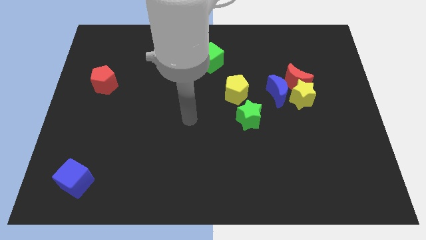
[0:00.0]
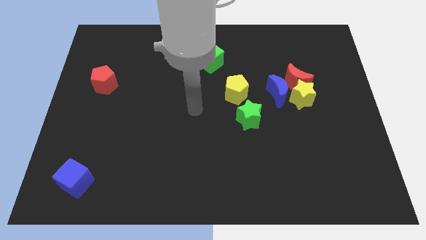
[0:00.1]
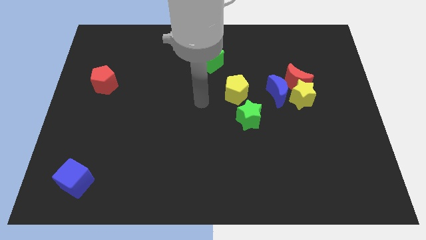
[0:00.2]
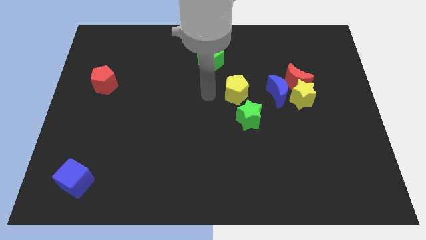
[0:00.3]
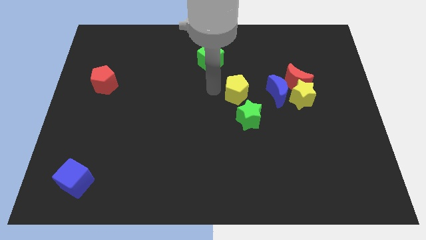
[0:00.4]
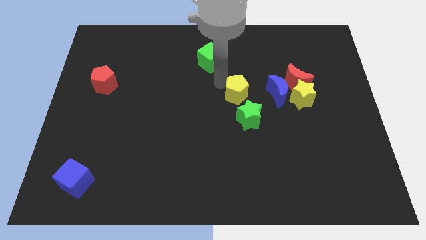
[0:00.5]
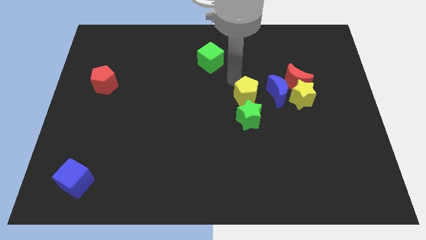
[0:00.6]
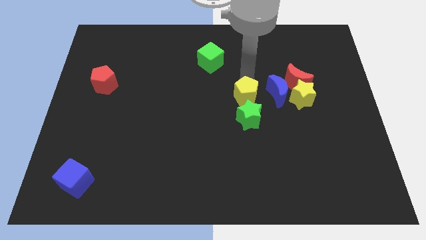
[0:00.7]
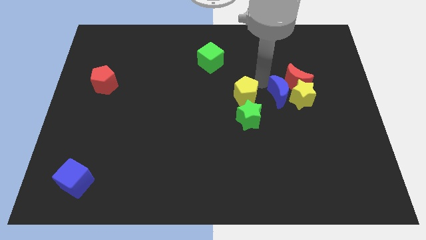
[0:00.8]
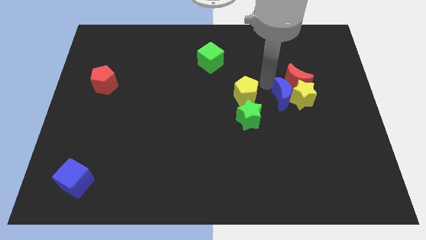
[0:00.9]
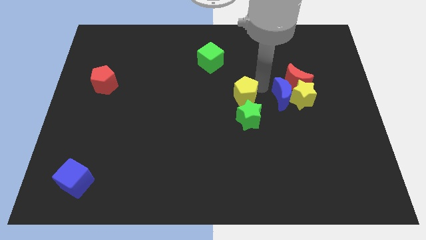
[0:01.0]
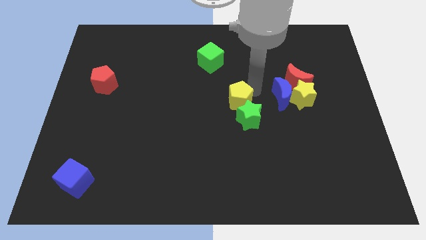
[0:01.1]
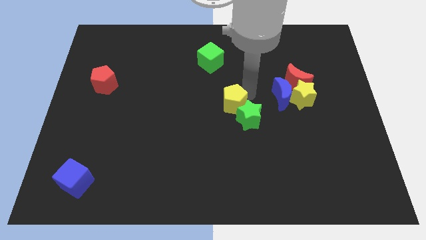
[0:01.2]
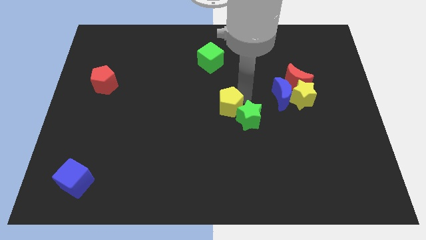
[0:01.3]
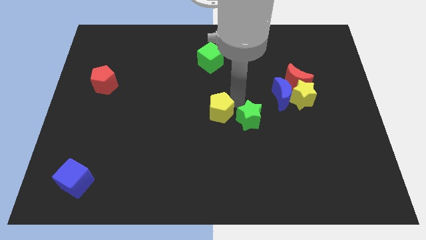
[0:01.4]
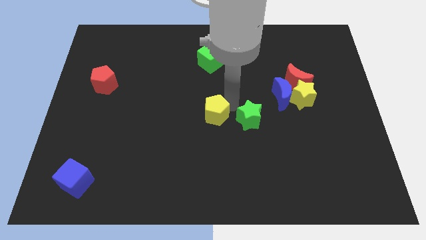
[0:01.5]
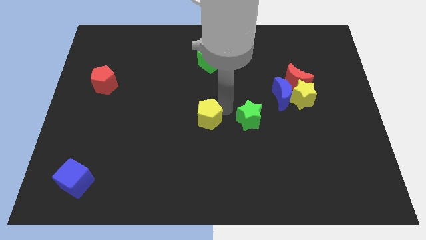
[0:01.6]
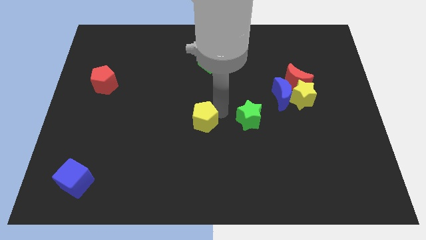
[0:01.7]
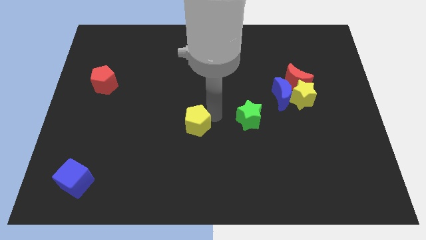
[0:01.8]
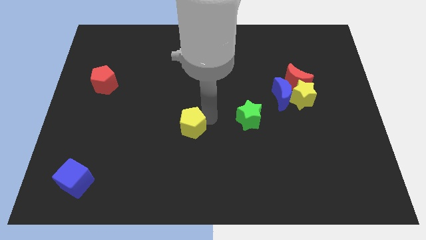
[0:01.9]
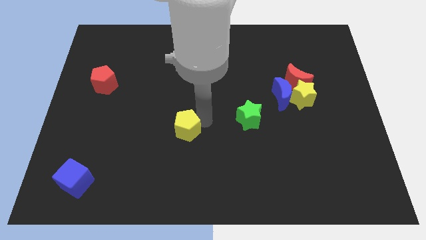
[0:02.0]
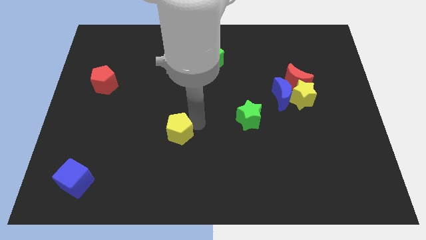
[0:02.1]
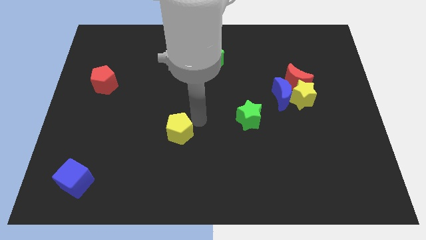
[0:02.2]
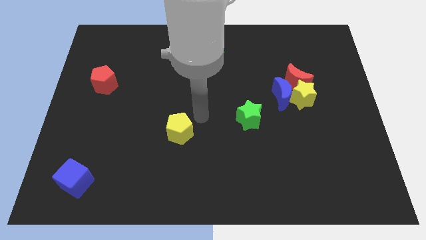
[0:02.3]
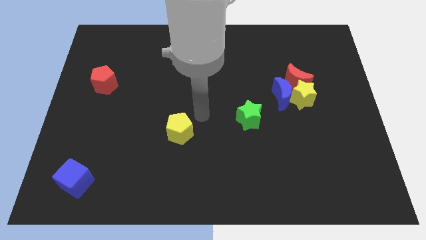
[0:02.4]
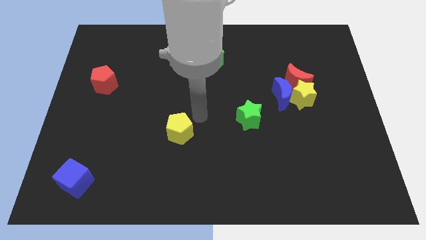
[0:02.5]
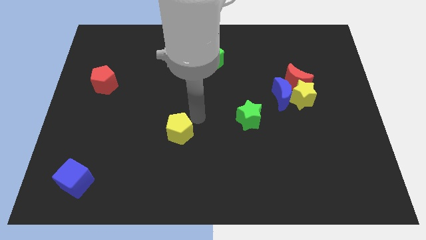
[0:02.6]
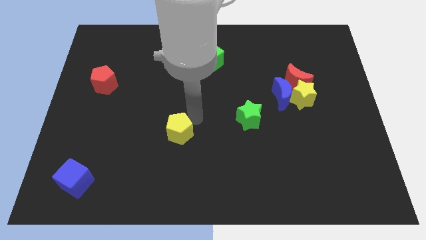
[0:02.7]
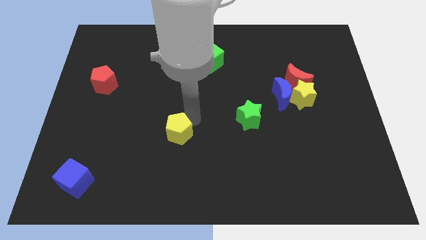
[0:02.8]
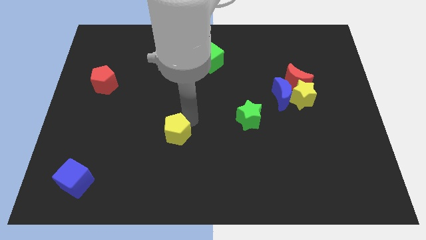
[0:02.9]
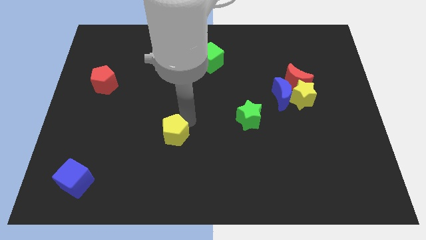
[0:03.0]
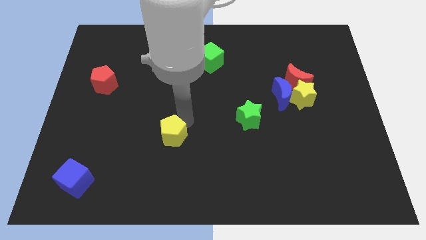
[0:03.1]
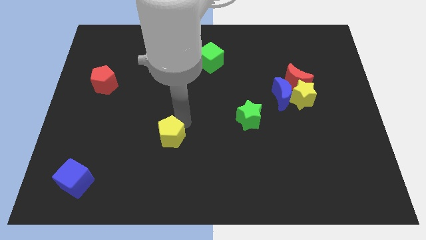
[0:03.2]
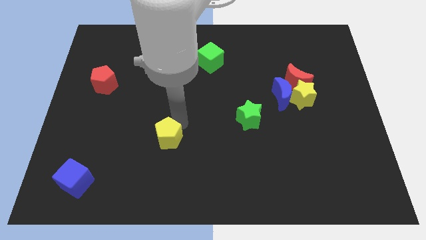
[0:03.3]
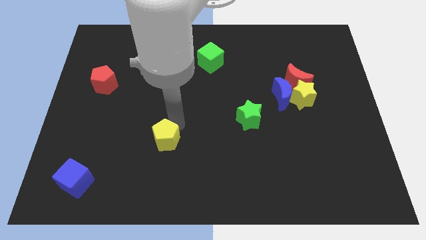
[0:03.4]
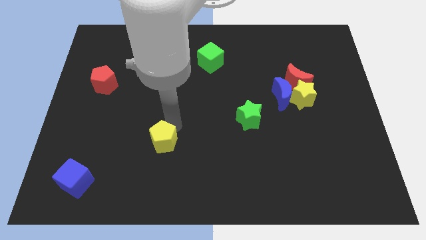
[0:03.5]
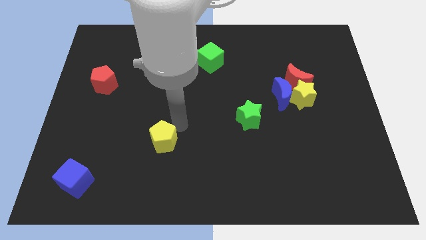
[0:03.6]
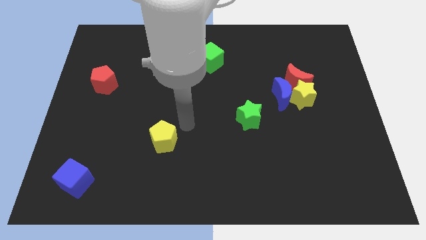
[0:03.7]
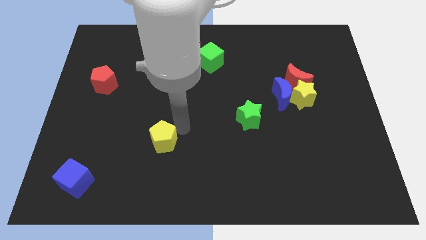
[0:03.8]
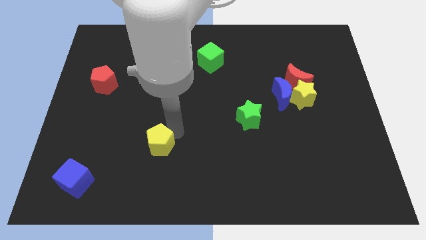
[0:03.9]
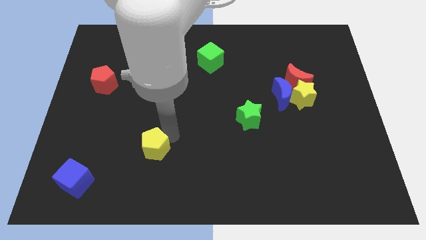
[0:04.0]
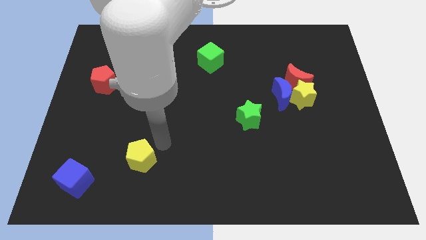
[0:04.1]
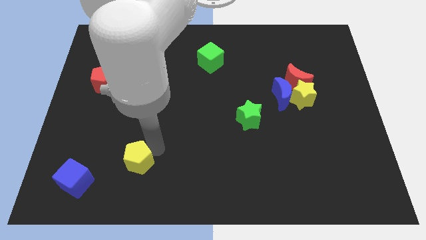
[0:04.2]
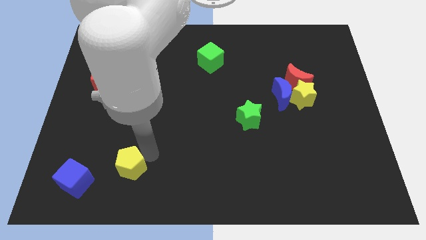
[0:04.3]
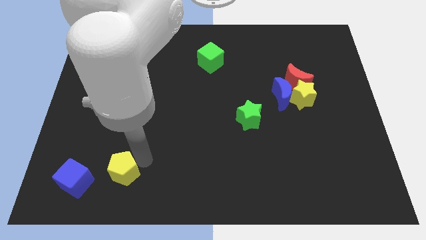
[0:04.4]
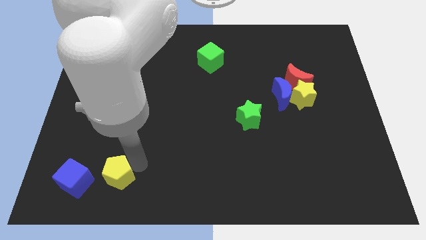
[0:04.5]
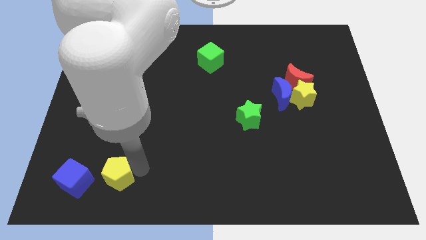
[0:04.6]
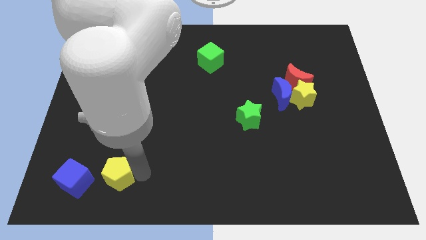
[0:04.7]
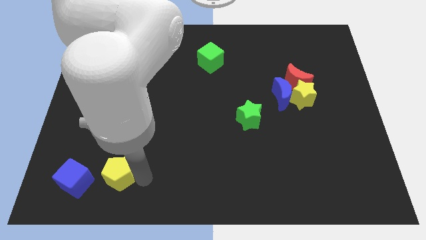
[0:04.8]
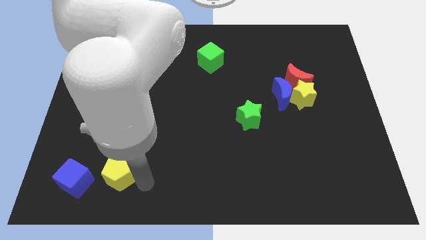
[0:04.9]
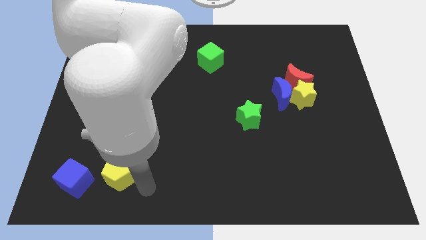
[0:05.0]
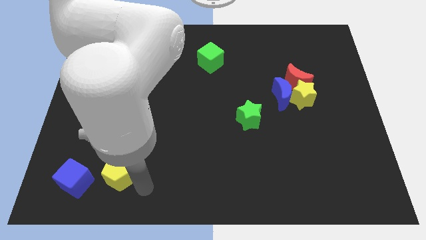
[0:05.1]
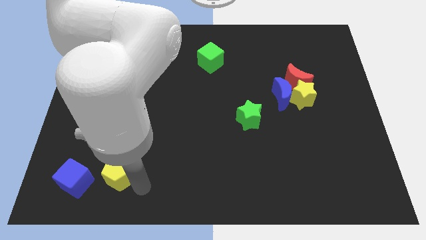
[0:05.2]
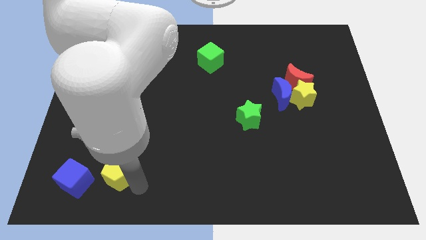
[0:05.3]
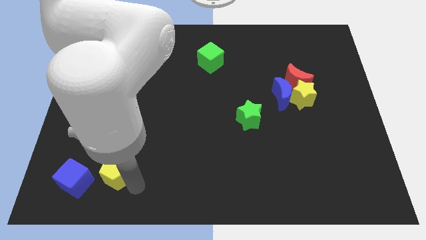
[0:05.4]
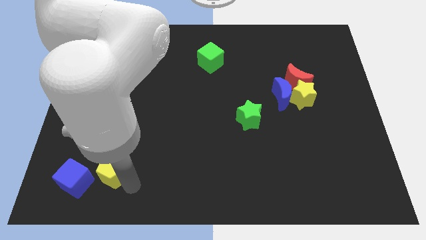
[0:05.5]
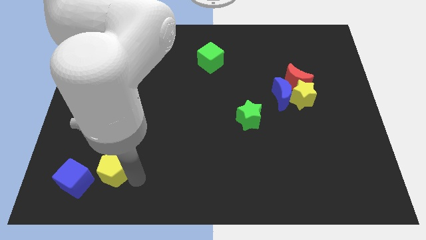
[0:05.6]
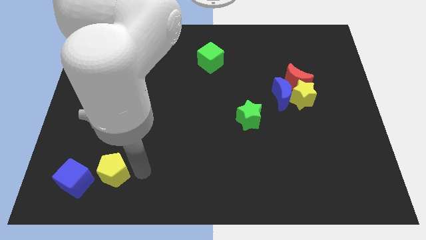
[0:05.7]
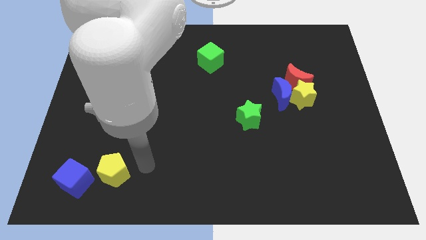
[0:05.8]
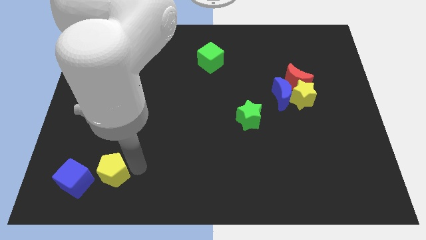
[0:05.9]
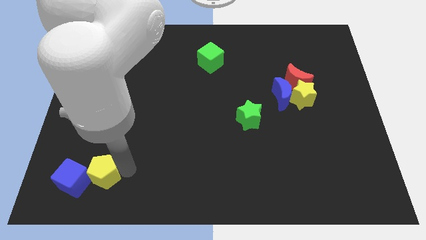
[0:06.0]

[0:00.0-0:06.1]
move the yellow pentagon towards the blue cube

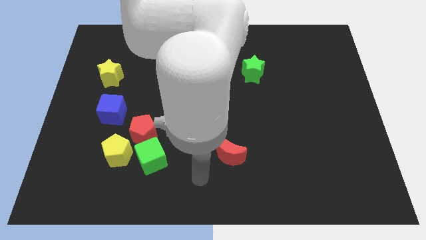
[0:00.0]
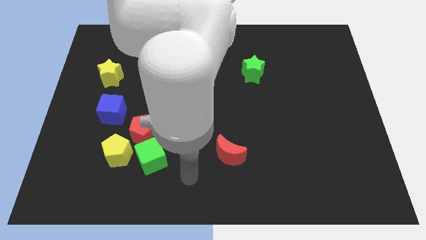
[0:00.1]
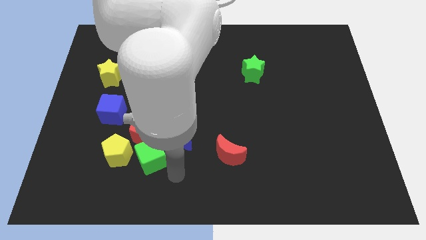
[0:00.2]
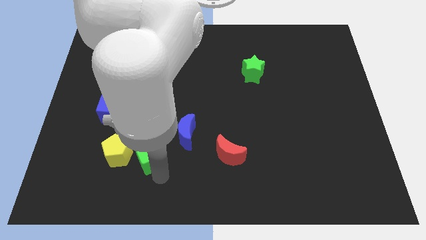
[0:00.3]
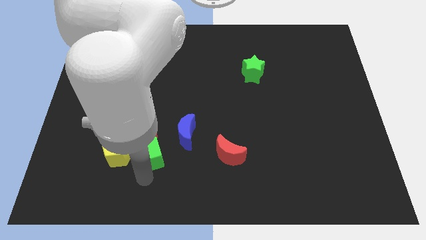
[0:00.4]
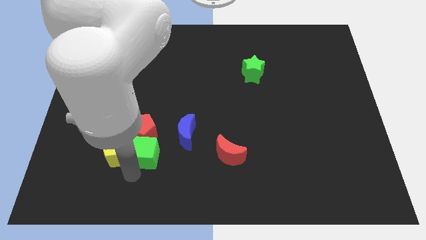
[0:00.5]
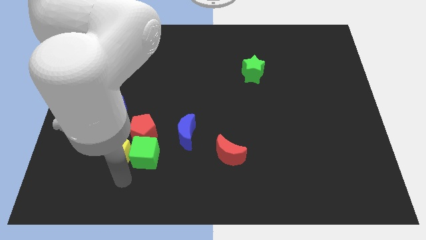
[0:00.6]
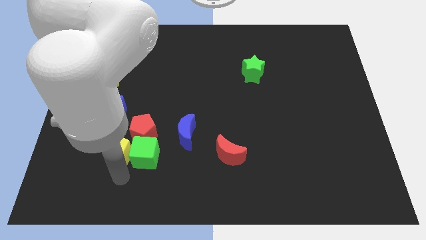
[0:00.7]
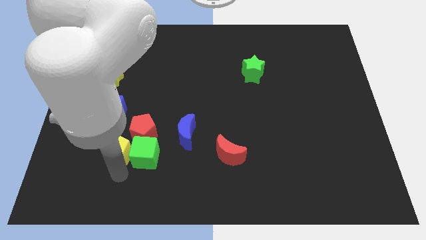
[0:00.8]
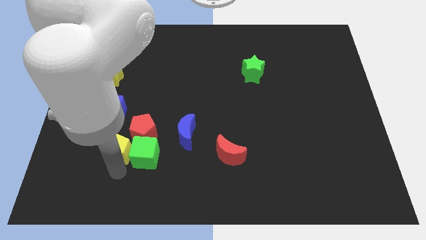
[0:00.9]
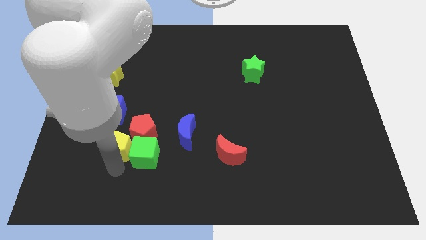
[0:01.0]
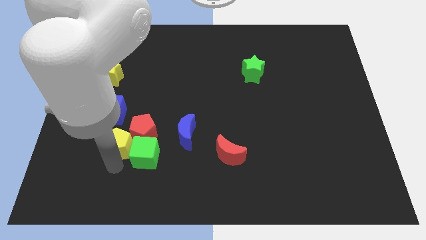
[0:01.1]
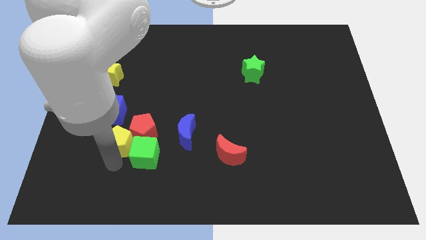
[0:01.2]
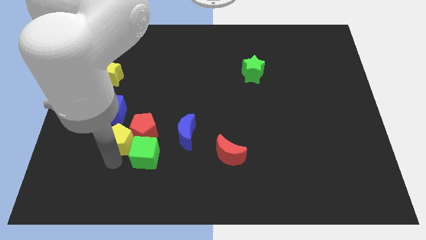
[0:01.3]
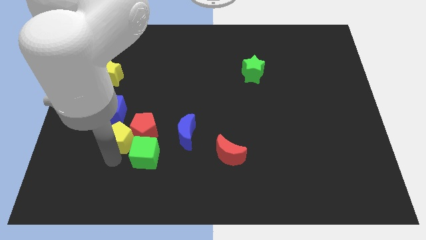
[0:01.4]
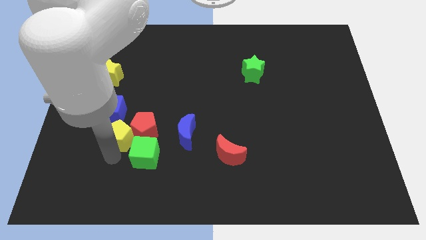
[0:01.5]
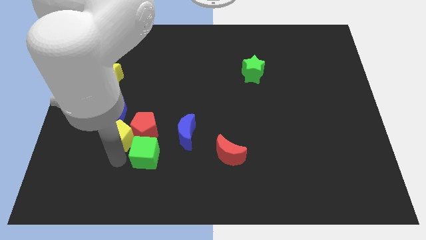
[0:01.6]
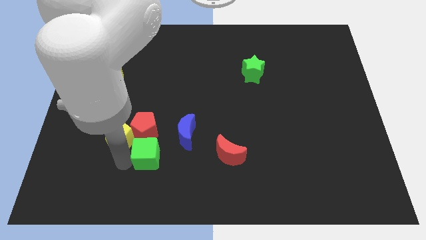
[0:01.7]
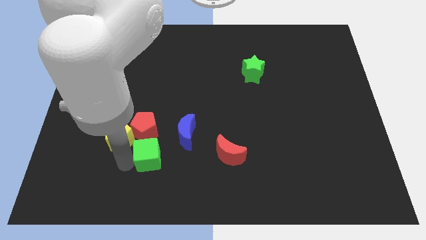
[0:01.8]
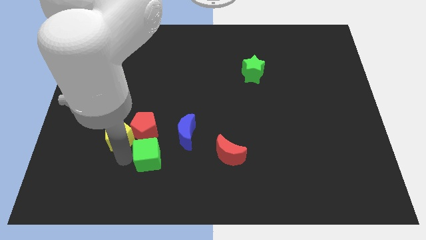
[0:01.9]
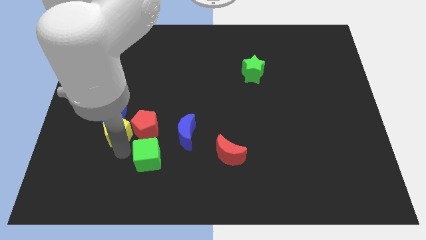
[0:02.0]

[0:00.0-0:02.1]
push the yellow pentagon to the blue cube
